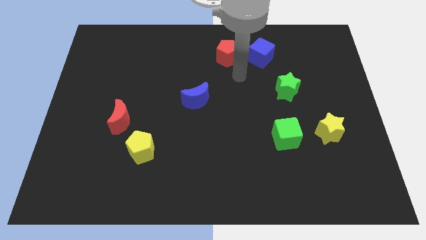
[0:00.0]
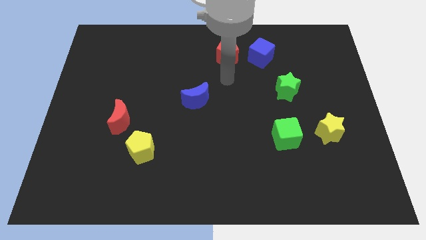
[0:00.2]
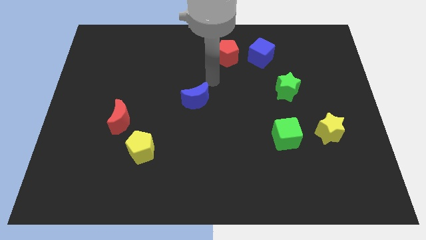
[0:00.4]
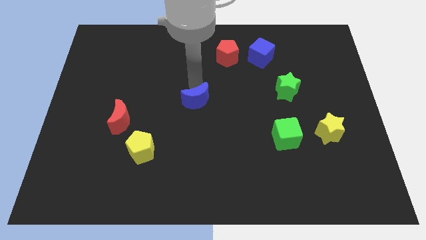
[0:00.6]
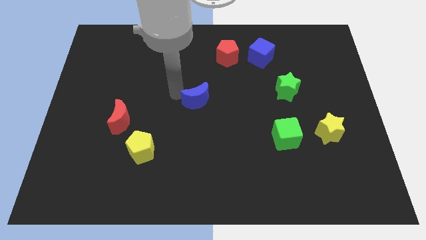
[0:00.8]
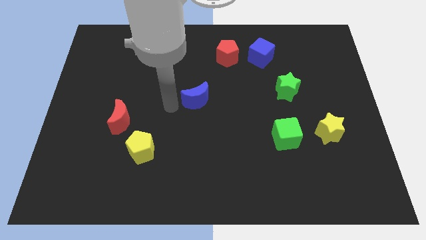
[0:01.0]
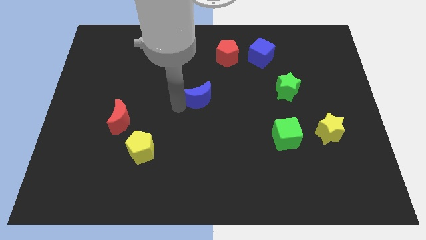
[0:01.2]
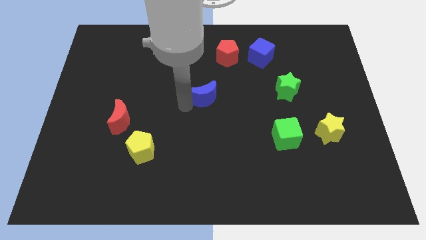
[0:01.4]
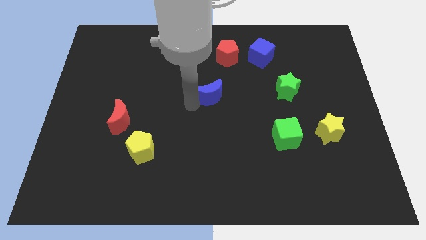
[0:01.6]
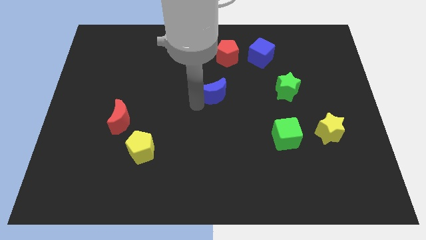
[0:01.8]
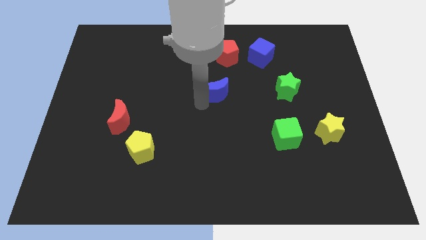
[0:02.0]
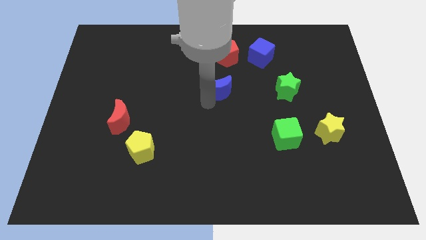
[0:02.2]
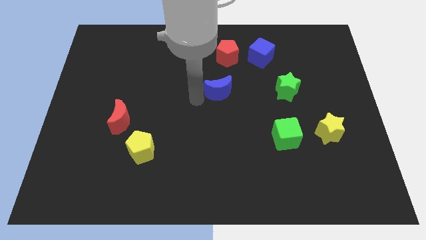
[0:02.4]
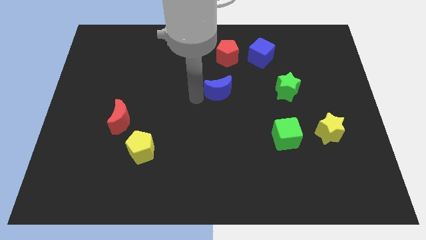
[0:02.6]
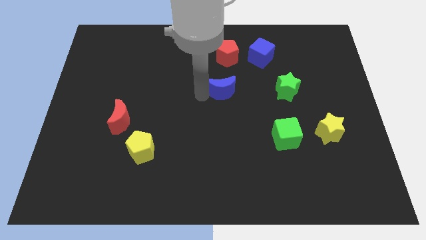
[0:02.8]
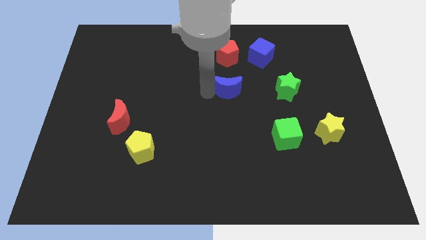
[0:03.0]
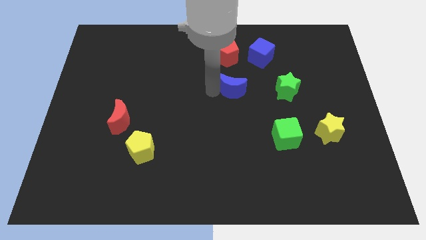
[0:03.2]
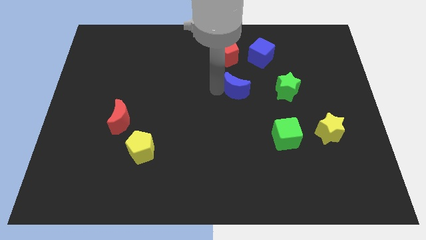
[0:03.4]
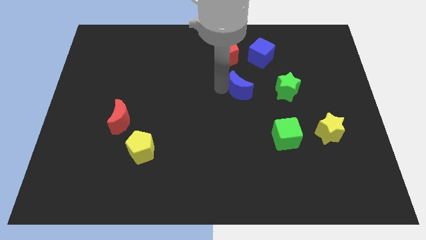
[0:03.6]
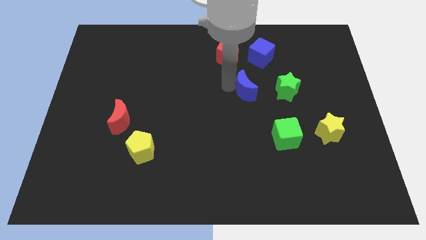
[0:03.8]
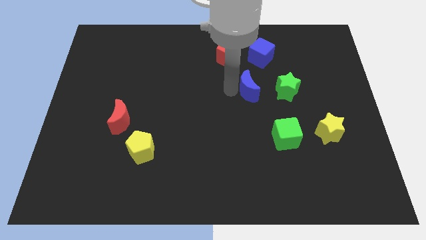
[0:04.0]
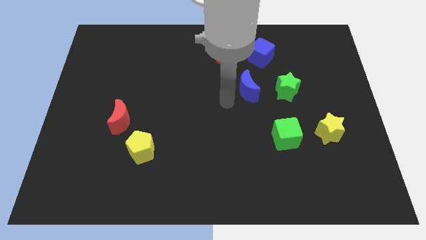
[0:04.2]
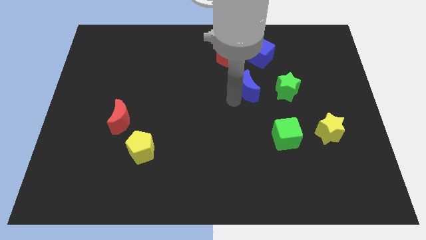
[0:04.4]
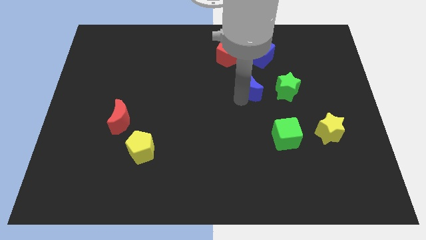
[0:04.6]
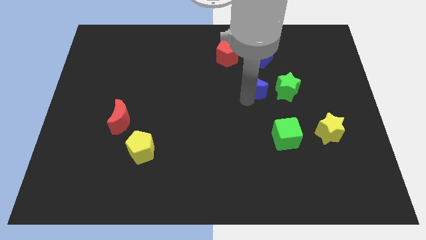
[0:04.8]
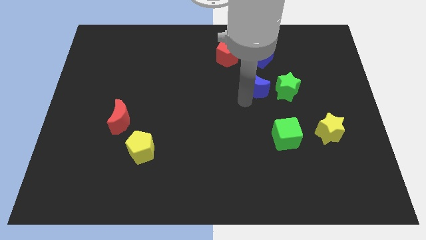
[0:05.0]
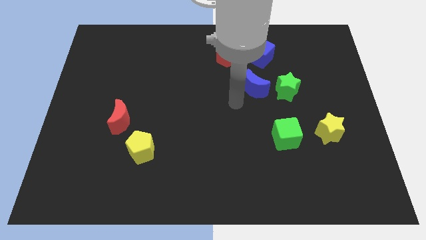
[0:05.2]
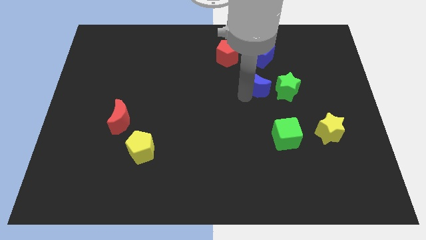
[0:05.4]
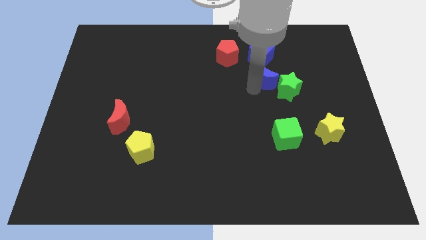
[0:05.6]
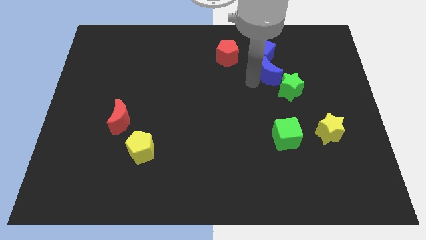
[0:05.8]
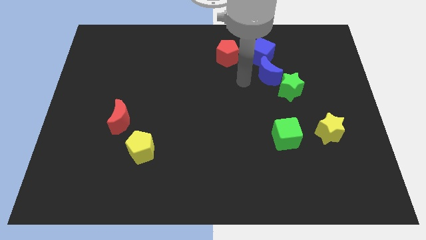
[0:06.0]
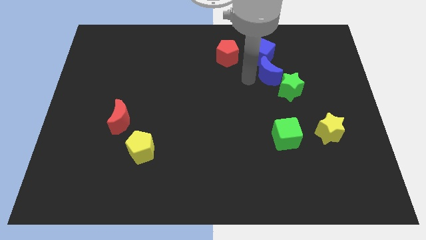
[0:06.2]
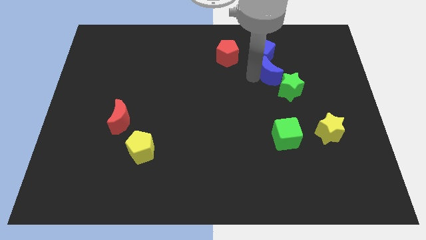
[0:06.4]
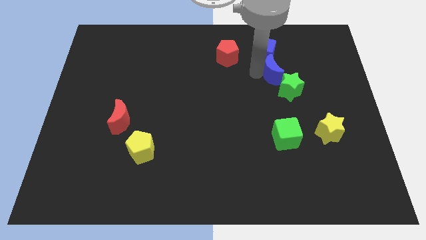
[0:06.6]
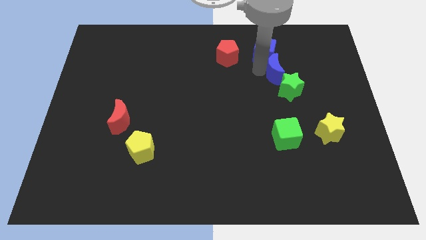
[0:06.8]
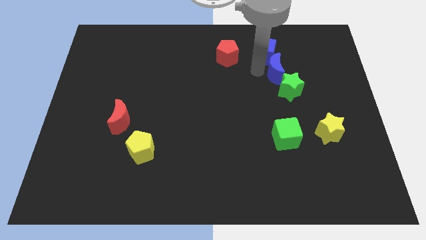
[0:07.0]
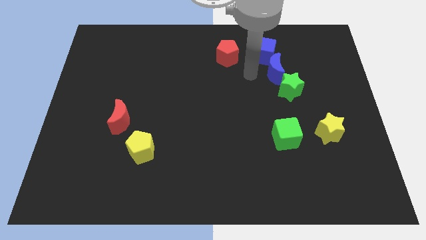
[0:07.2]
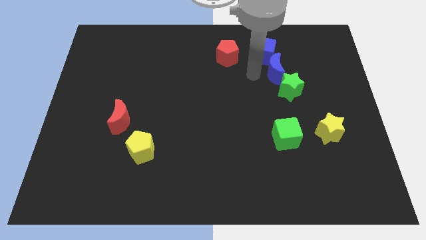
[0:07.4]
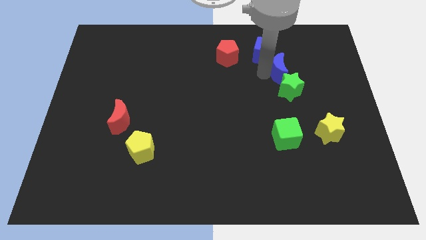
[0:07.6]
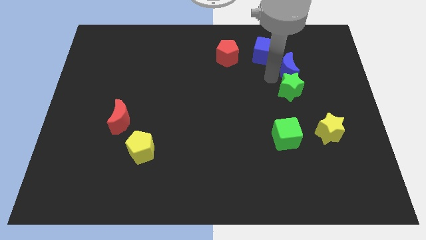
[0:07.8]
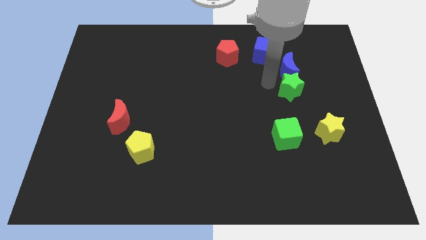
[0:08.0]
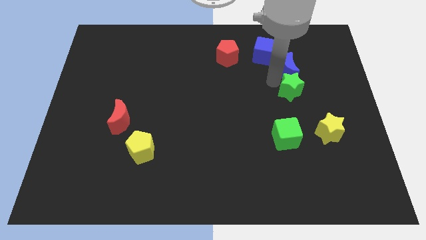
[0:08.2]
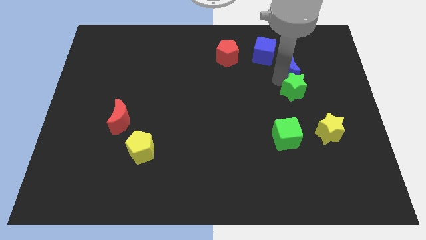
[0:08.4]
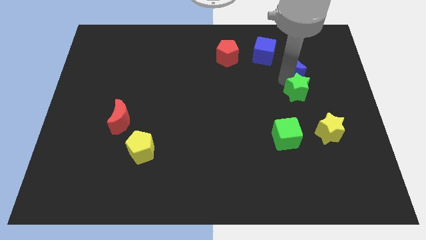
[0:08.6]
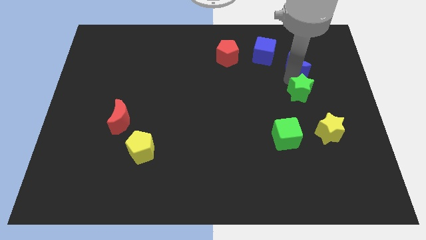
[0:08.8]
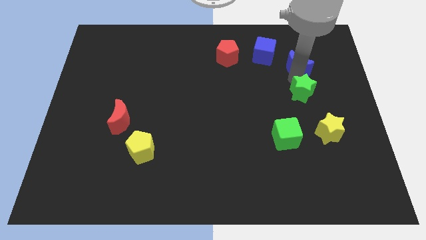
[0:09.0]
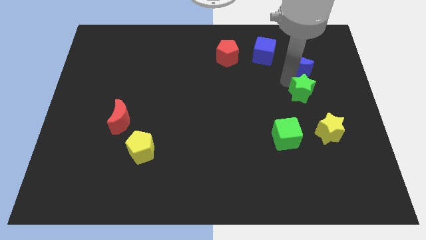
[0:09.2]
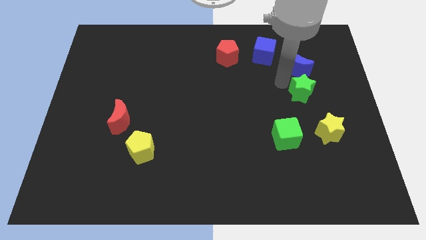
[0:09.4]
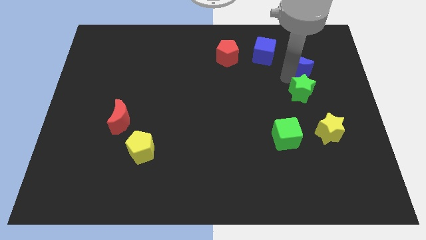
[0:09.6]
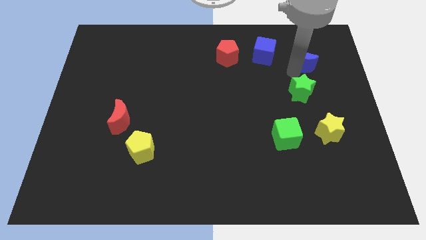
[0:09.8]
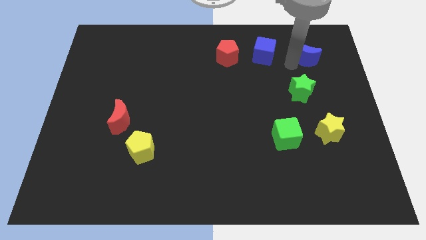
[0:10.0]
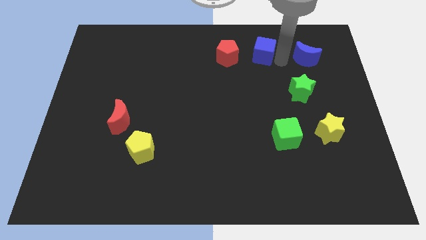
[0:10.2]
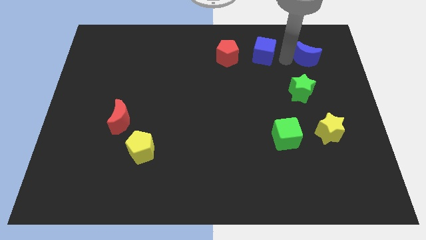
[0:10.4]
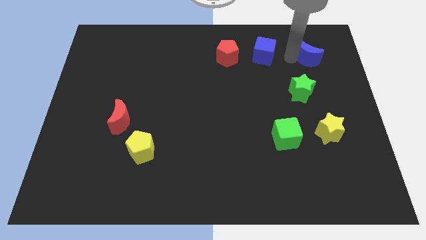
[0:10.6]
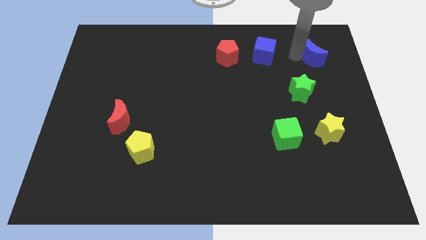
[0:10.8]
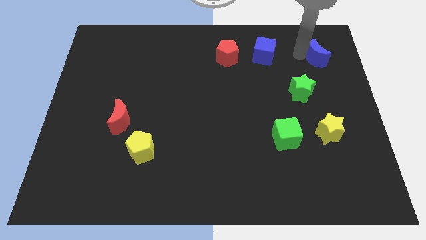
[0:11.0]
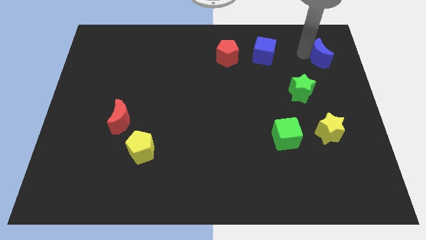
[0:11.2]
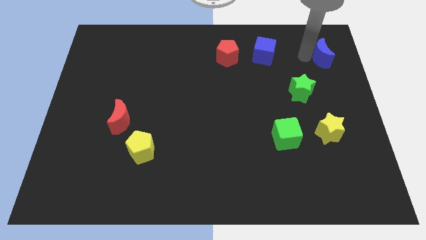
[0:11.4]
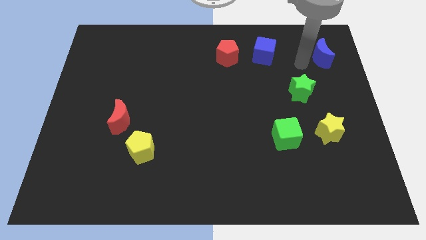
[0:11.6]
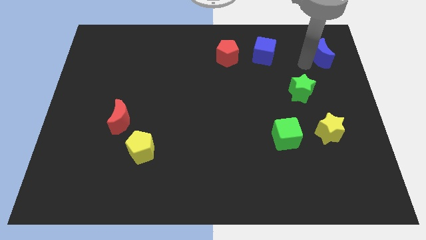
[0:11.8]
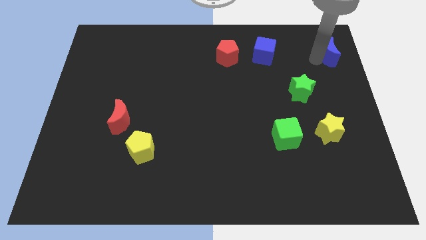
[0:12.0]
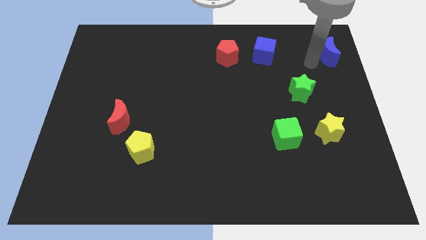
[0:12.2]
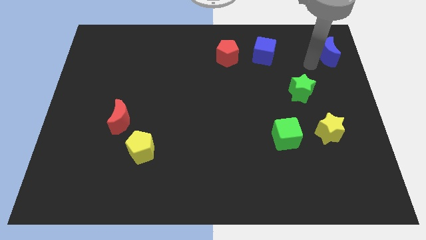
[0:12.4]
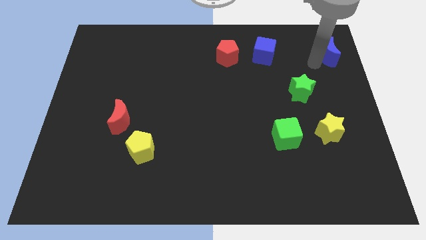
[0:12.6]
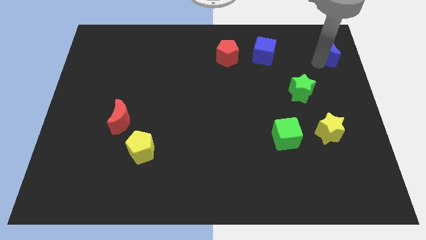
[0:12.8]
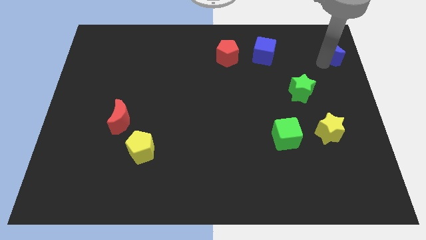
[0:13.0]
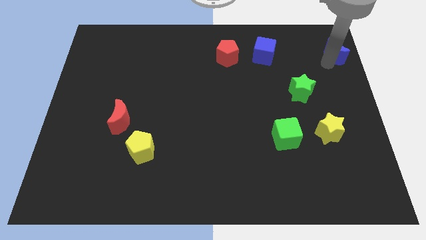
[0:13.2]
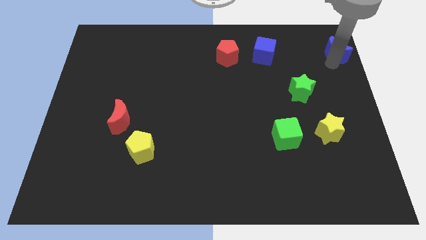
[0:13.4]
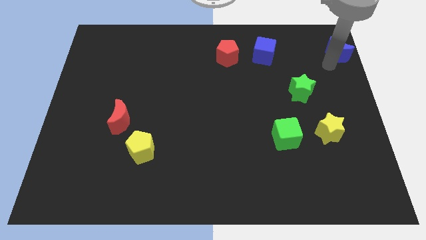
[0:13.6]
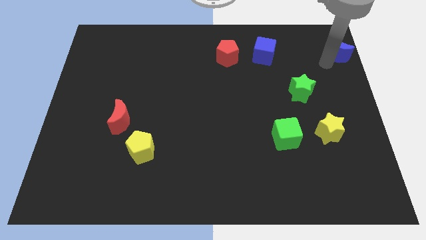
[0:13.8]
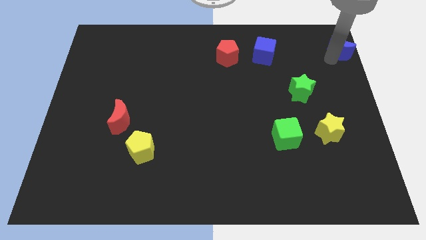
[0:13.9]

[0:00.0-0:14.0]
push the blue moon to the top right of the board
